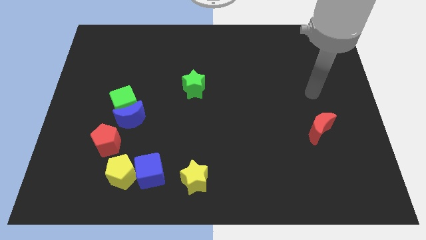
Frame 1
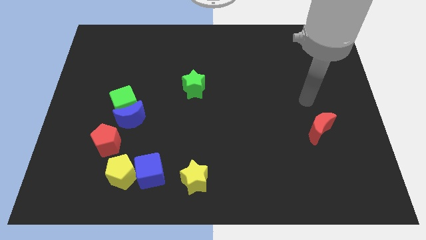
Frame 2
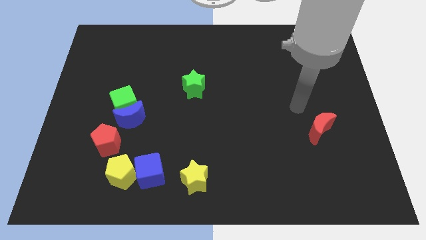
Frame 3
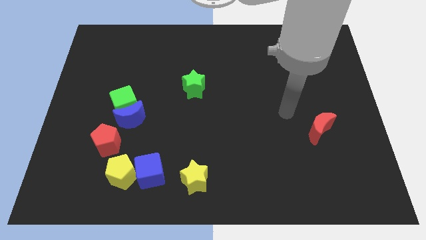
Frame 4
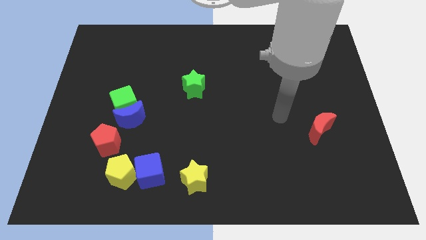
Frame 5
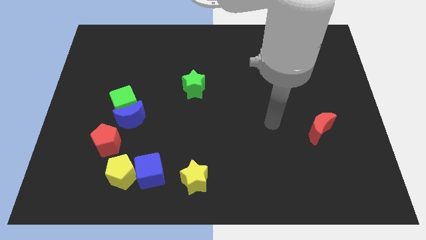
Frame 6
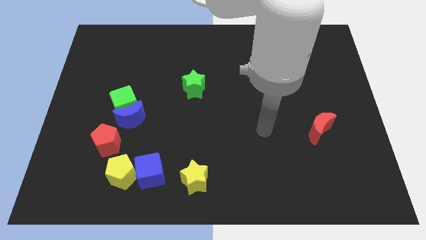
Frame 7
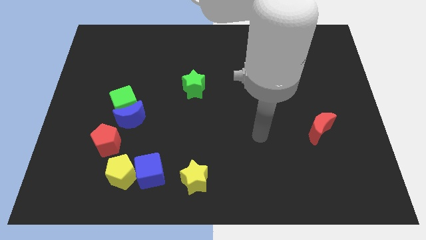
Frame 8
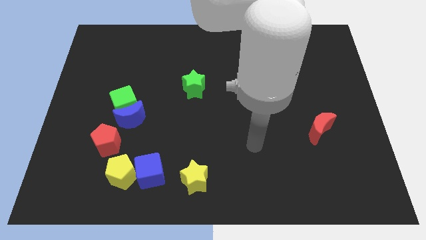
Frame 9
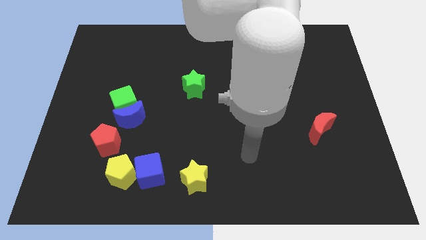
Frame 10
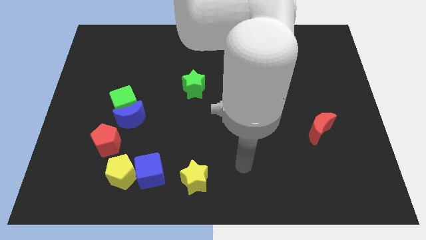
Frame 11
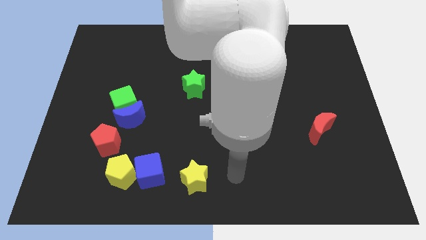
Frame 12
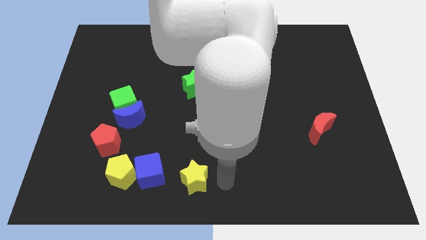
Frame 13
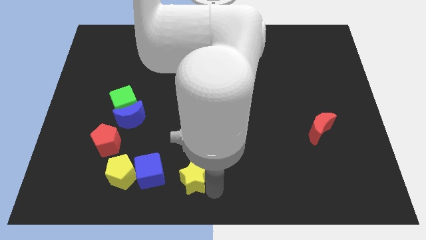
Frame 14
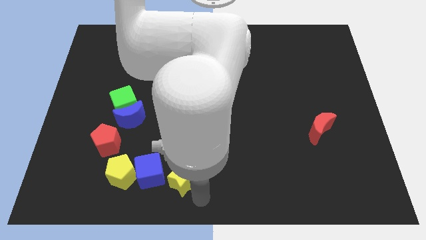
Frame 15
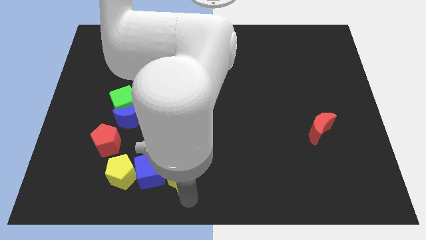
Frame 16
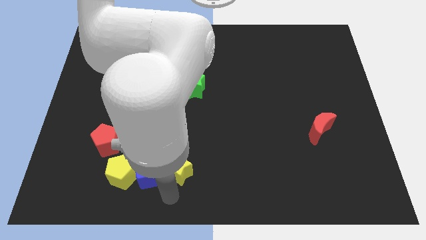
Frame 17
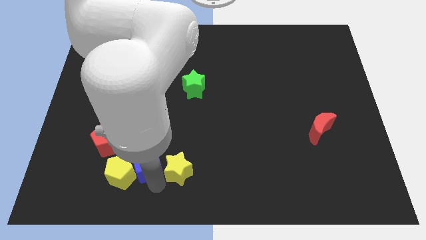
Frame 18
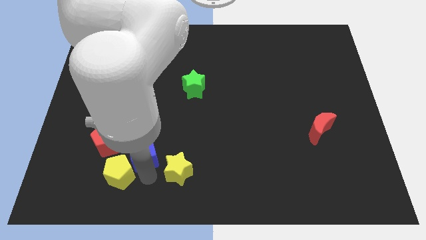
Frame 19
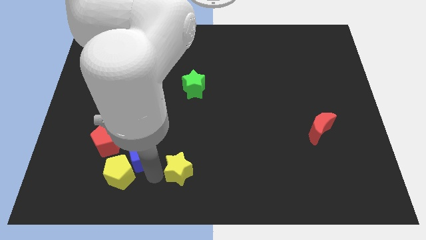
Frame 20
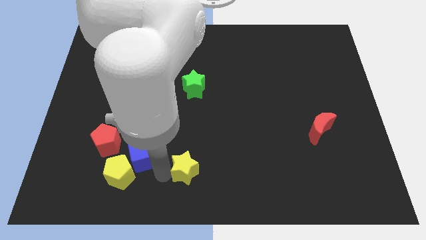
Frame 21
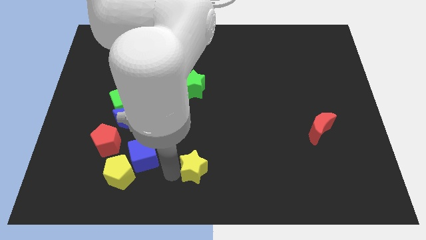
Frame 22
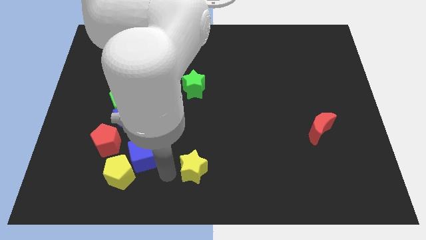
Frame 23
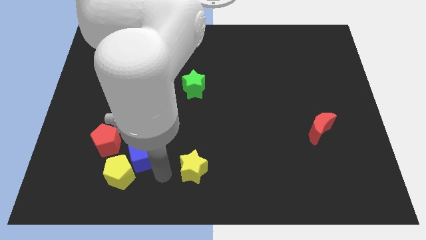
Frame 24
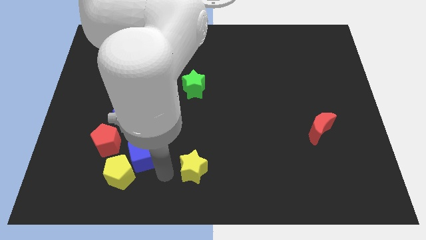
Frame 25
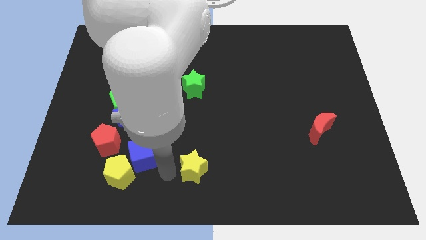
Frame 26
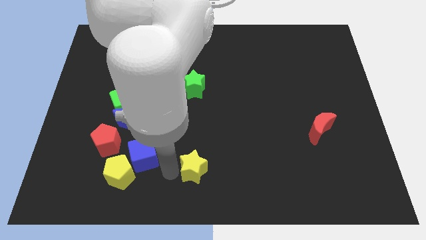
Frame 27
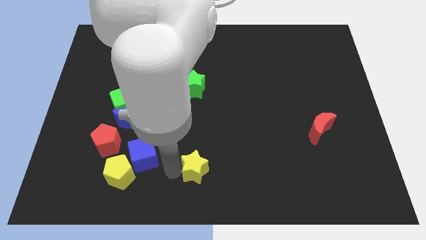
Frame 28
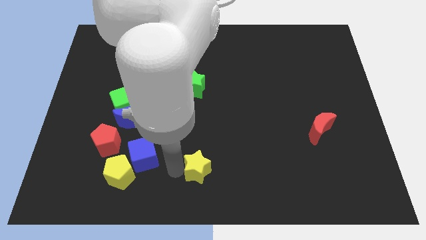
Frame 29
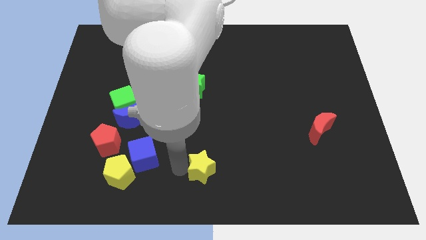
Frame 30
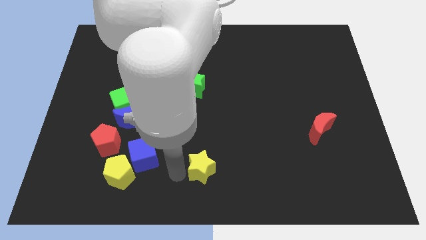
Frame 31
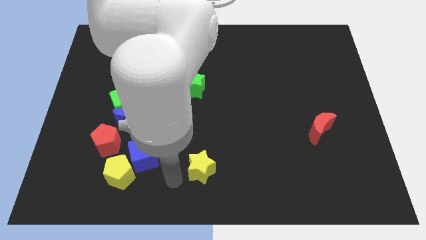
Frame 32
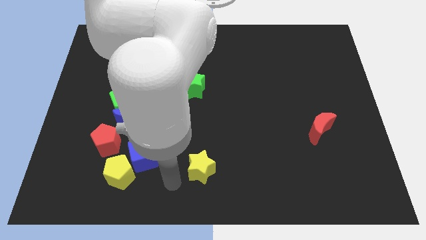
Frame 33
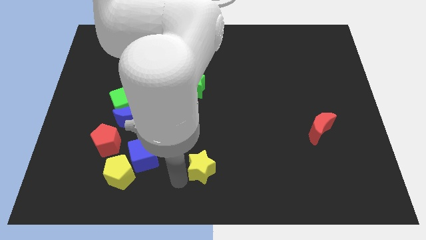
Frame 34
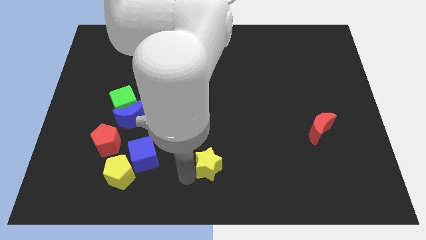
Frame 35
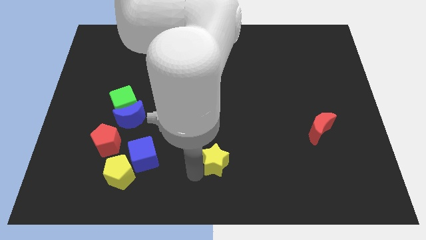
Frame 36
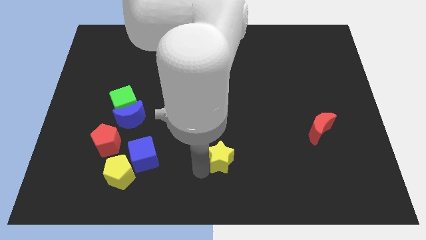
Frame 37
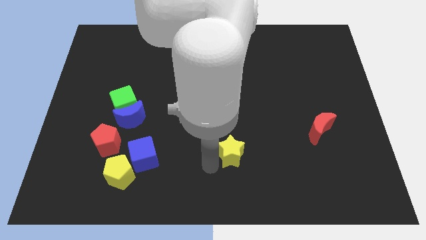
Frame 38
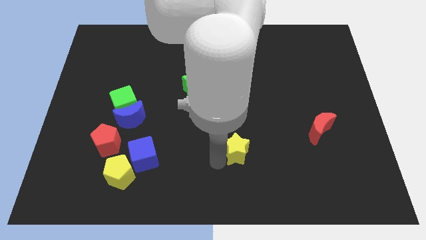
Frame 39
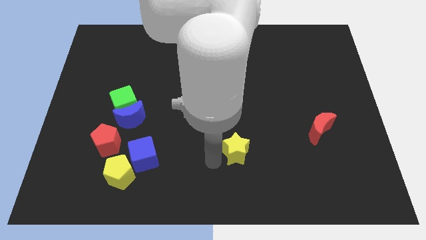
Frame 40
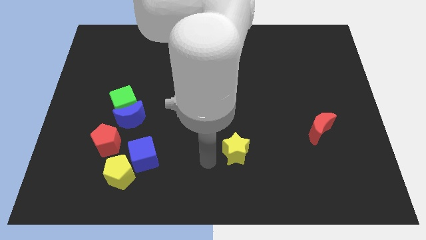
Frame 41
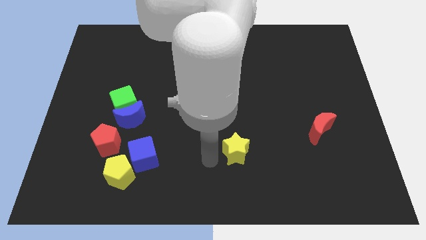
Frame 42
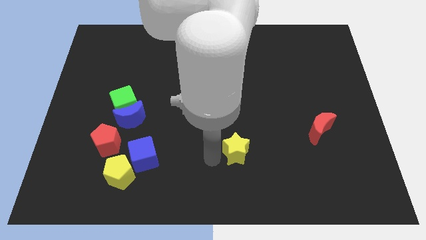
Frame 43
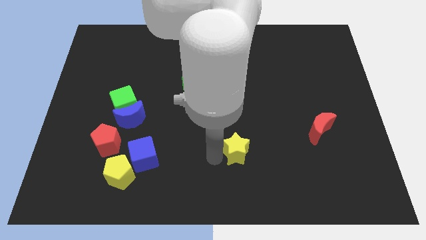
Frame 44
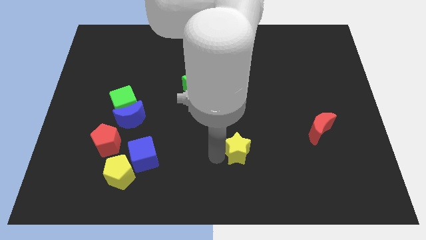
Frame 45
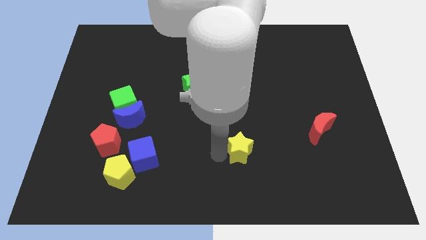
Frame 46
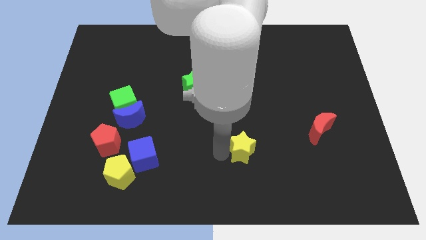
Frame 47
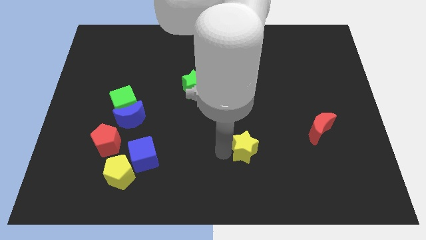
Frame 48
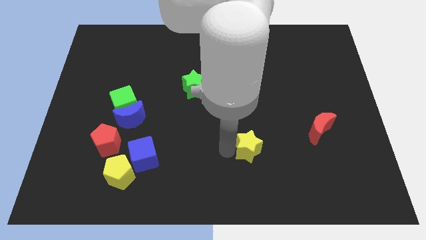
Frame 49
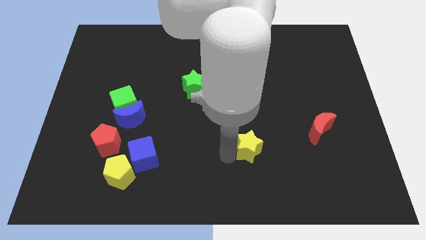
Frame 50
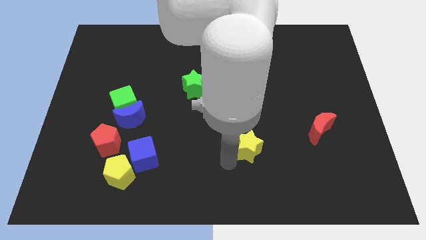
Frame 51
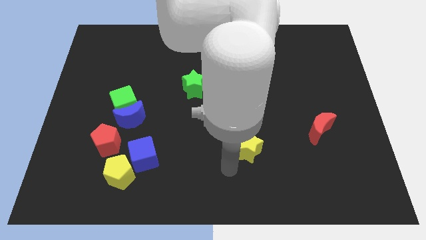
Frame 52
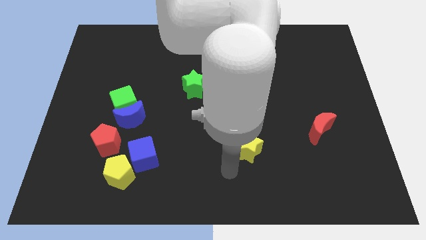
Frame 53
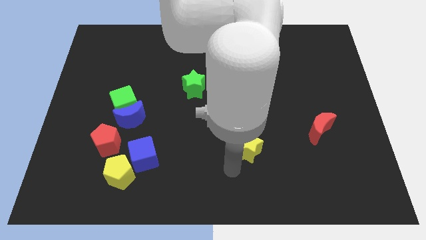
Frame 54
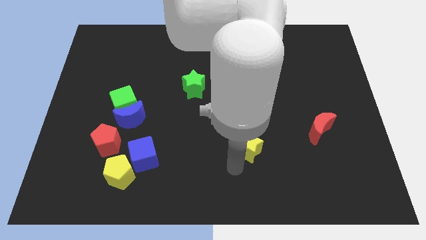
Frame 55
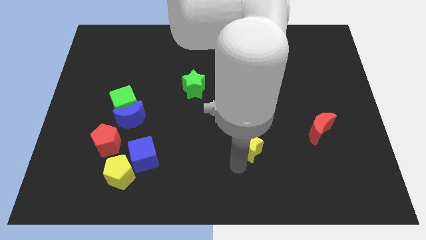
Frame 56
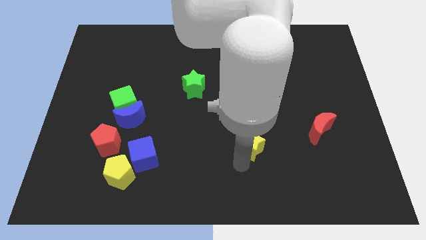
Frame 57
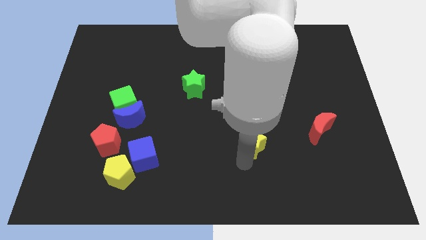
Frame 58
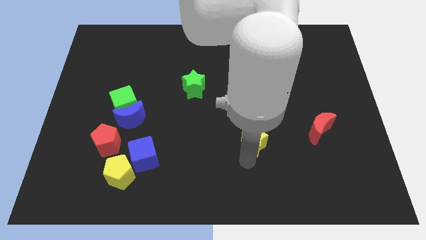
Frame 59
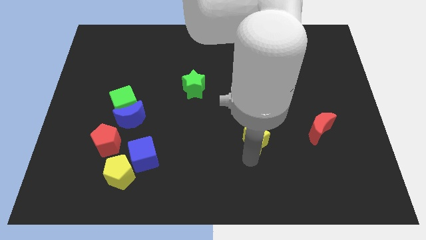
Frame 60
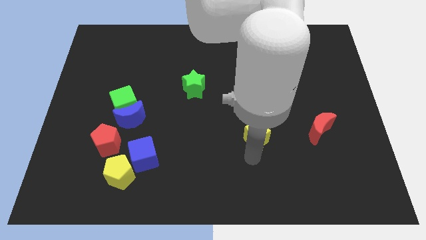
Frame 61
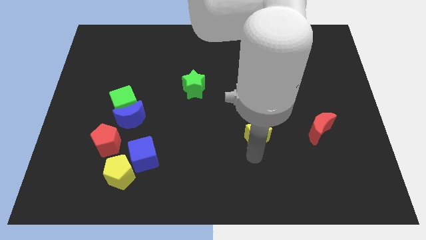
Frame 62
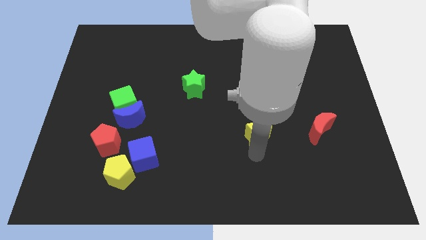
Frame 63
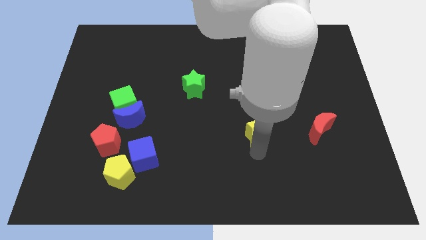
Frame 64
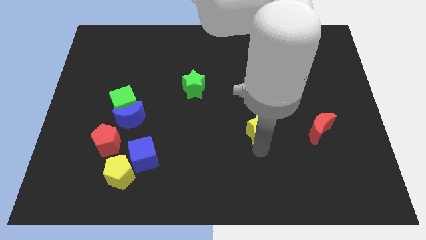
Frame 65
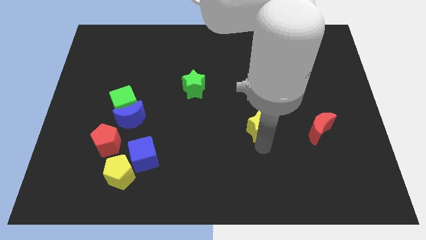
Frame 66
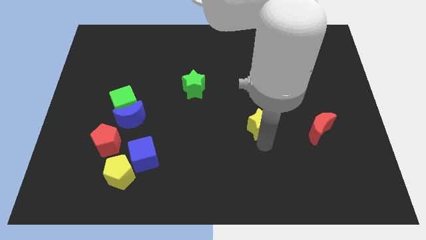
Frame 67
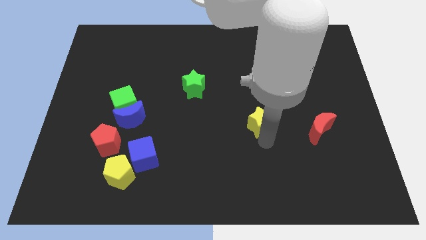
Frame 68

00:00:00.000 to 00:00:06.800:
move the yellow star up and then to the right

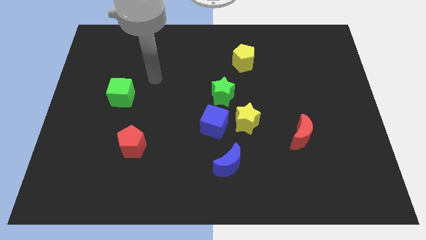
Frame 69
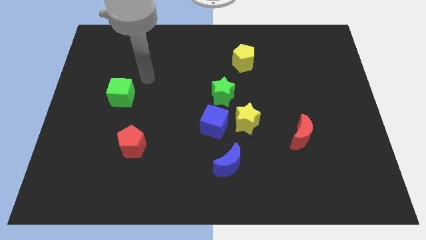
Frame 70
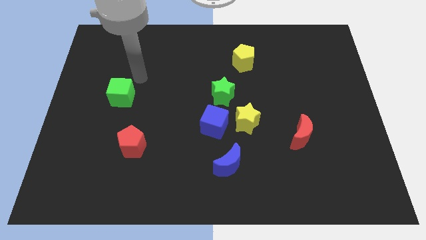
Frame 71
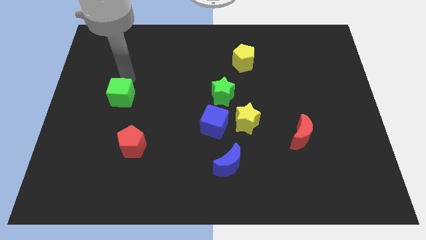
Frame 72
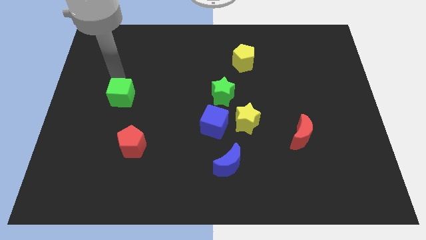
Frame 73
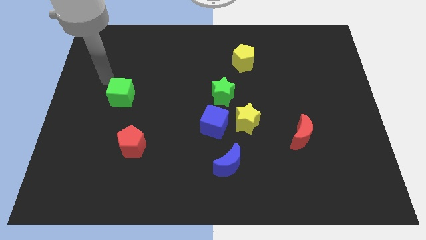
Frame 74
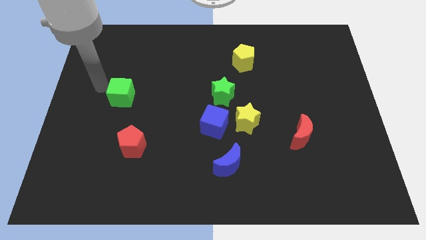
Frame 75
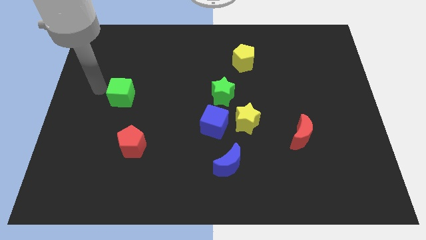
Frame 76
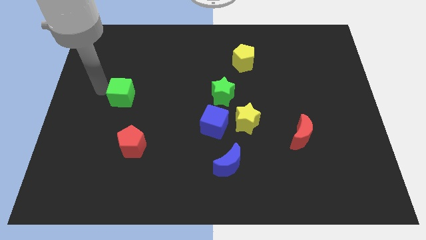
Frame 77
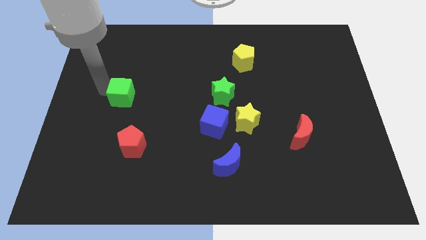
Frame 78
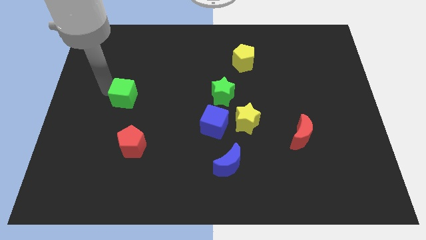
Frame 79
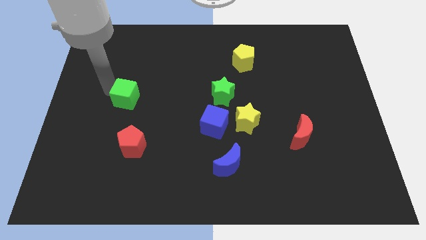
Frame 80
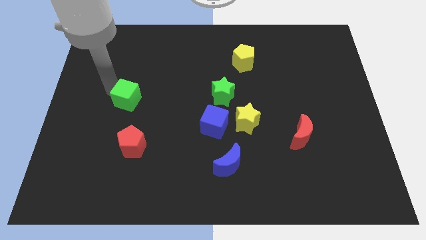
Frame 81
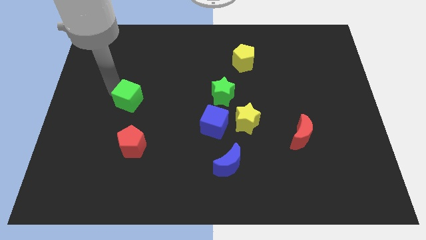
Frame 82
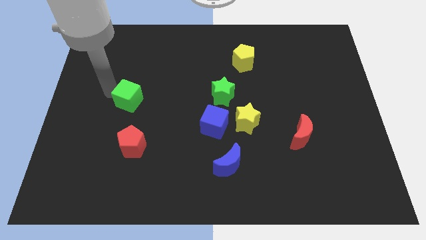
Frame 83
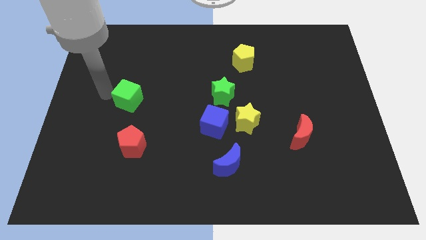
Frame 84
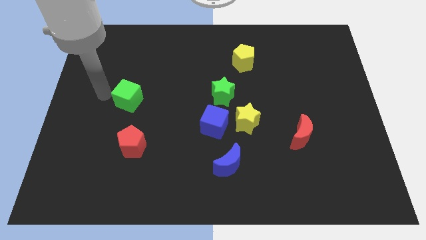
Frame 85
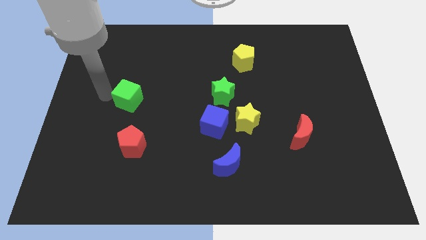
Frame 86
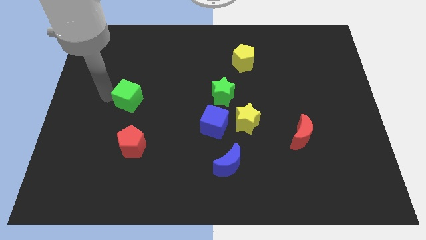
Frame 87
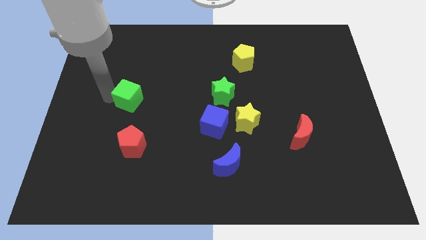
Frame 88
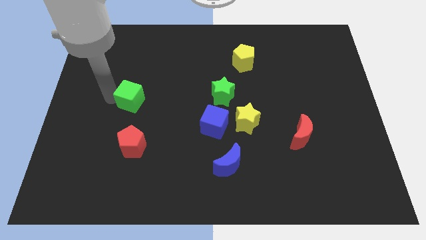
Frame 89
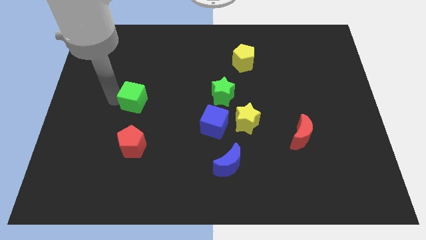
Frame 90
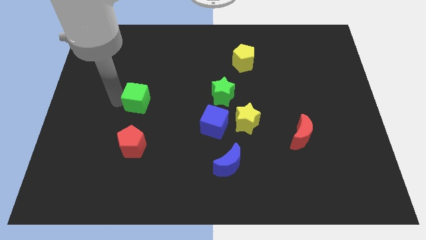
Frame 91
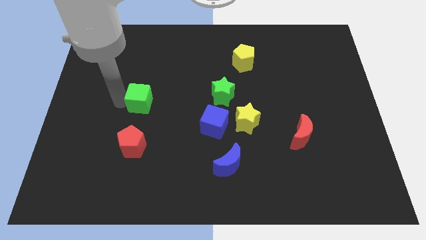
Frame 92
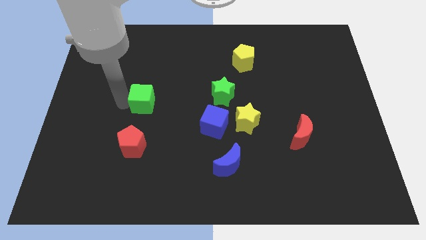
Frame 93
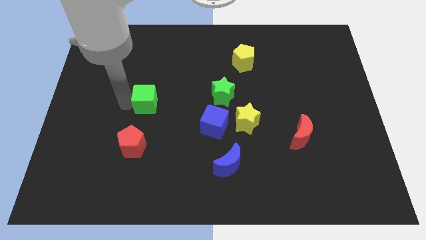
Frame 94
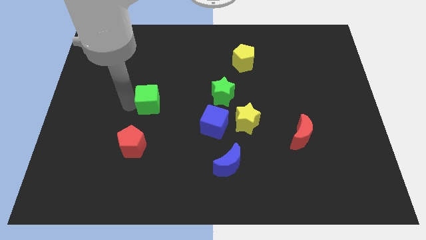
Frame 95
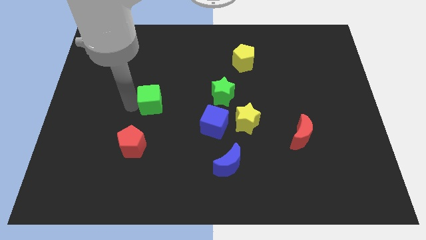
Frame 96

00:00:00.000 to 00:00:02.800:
push the green cube a bit to the right
